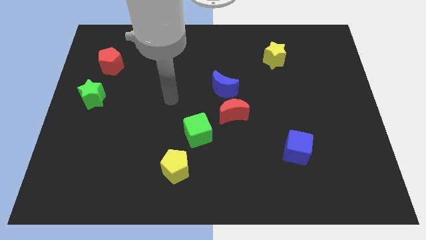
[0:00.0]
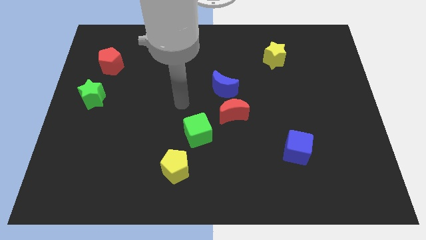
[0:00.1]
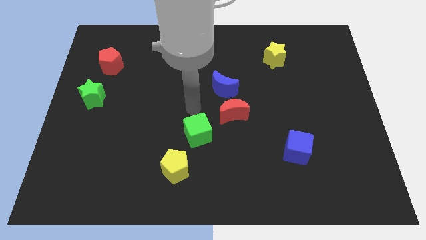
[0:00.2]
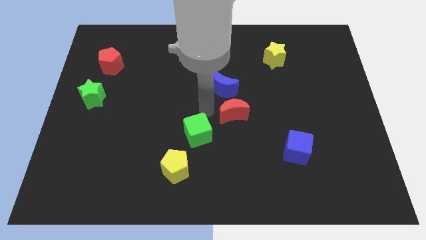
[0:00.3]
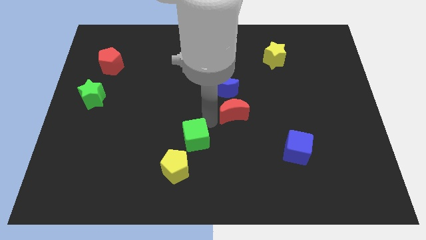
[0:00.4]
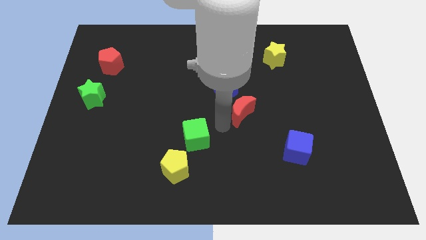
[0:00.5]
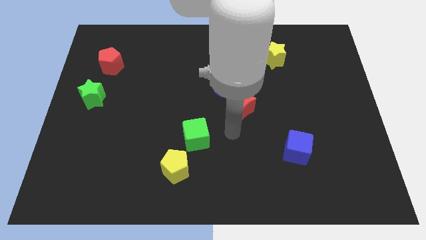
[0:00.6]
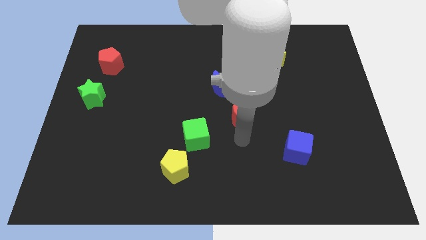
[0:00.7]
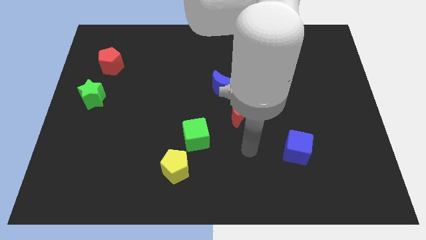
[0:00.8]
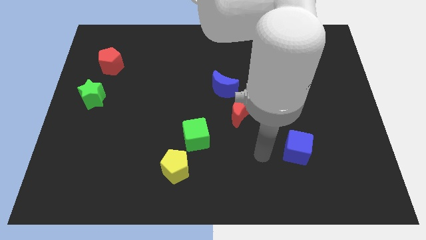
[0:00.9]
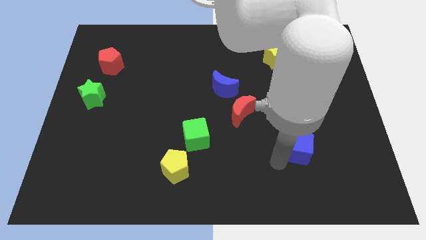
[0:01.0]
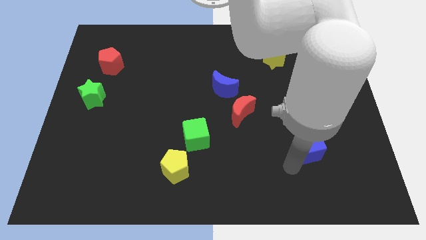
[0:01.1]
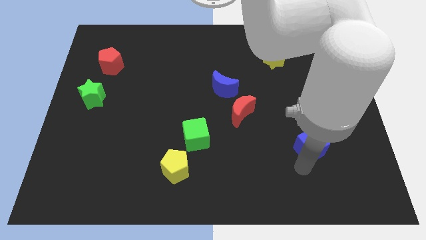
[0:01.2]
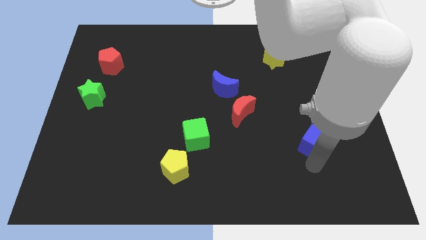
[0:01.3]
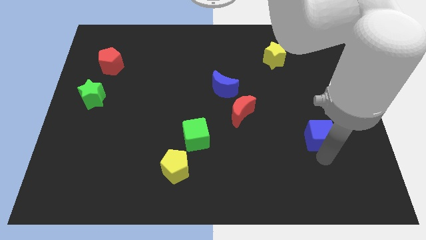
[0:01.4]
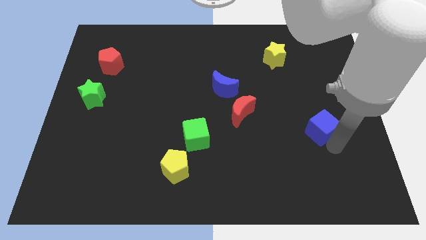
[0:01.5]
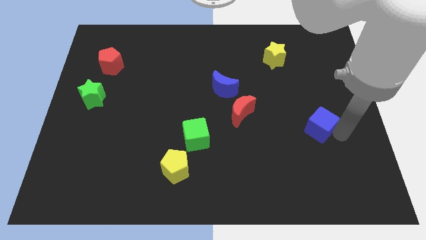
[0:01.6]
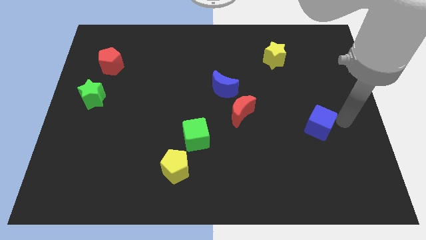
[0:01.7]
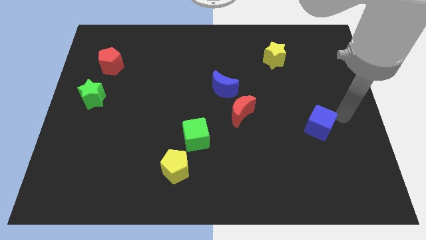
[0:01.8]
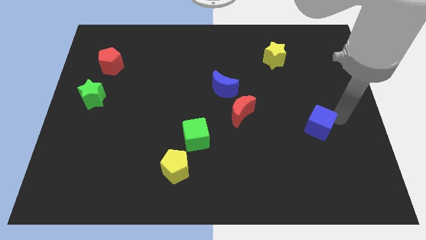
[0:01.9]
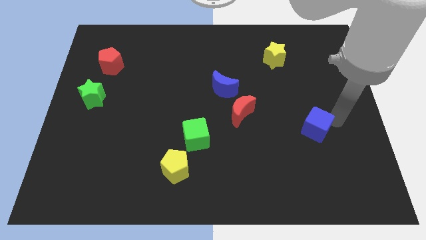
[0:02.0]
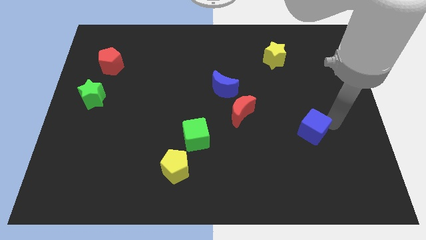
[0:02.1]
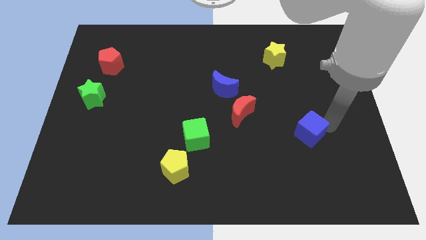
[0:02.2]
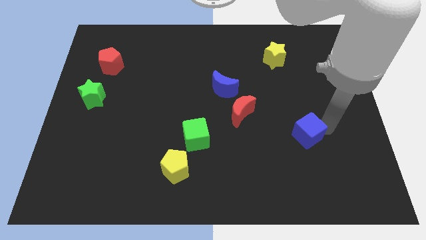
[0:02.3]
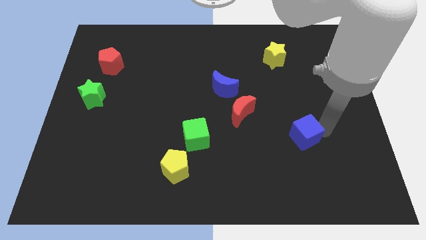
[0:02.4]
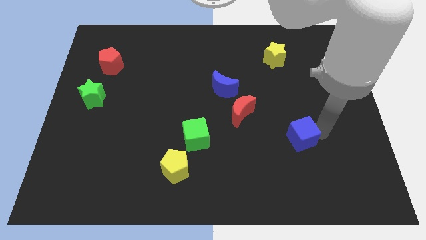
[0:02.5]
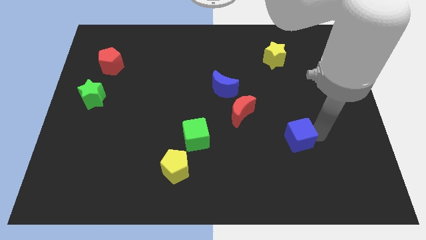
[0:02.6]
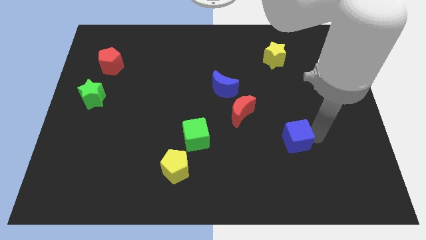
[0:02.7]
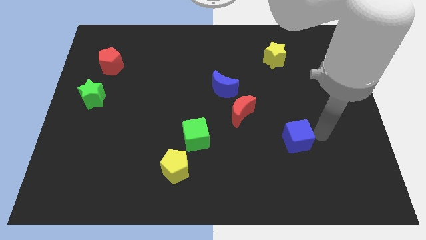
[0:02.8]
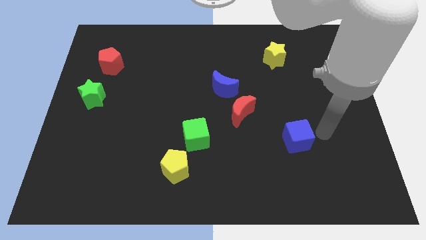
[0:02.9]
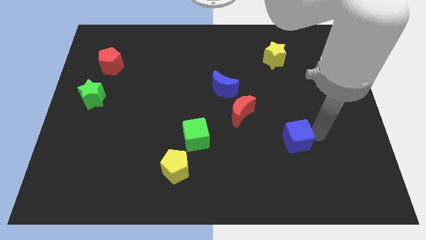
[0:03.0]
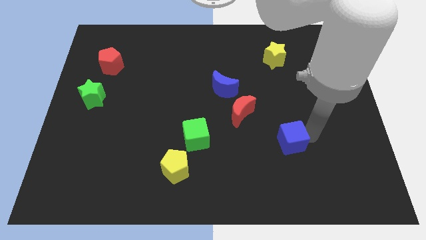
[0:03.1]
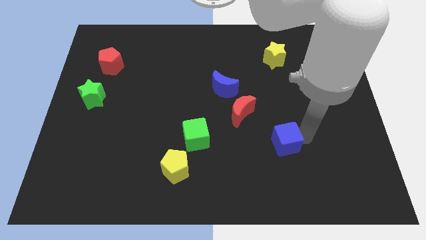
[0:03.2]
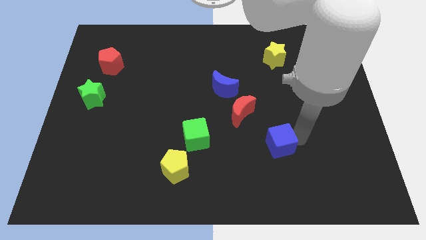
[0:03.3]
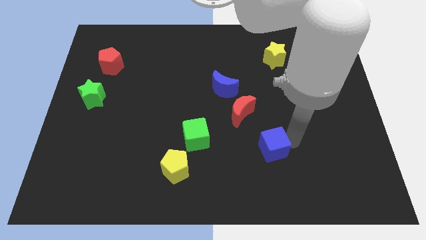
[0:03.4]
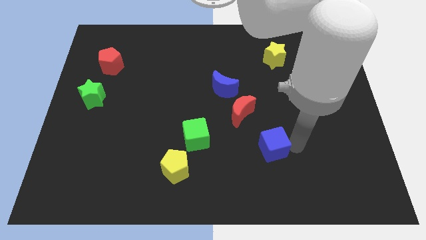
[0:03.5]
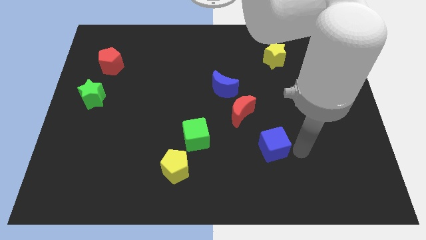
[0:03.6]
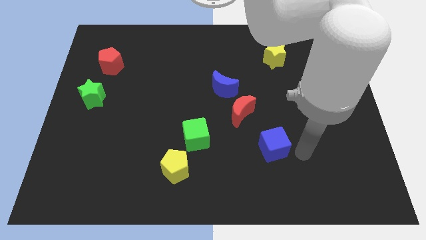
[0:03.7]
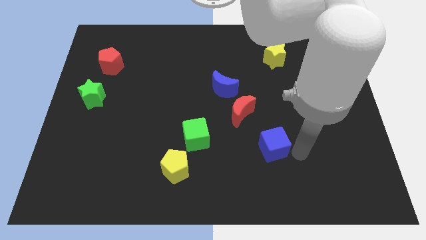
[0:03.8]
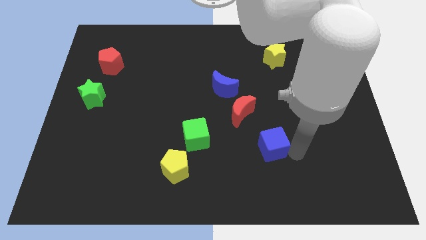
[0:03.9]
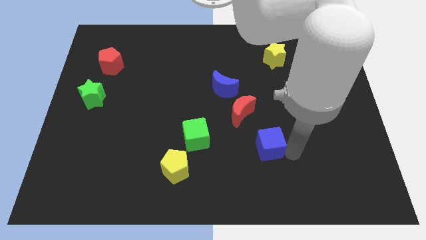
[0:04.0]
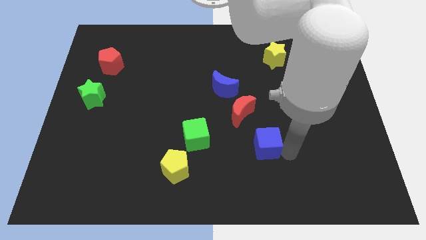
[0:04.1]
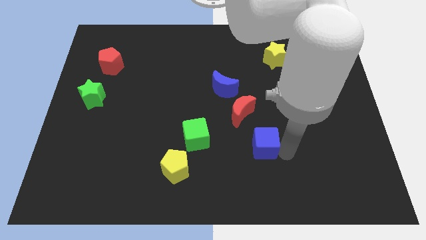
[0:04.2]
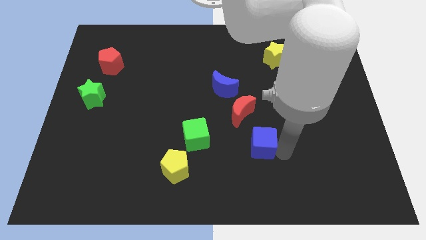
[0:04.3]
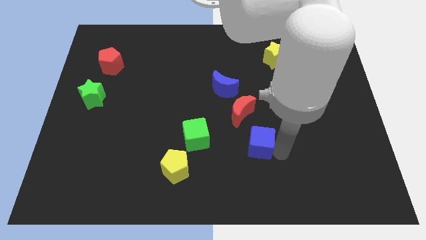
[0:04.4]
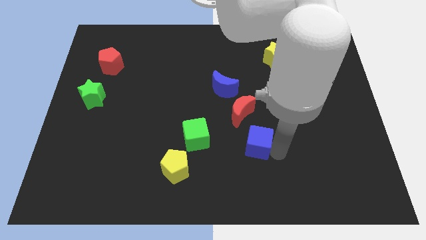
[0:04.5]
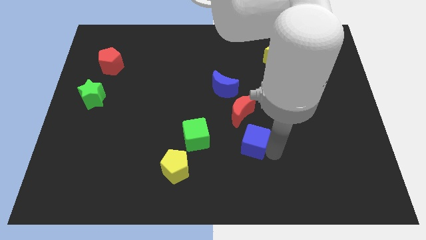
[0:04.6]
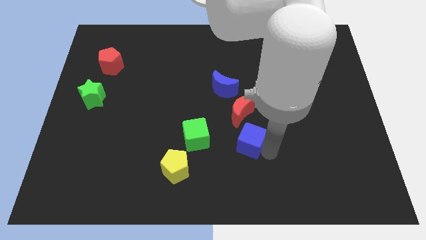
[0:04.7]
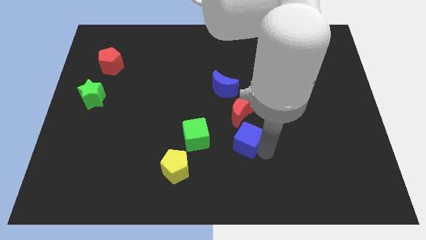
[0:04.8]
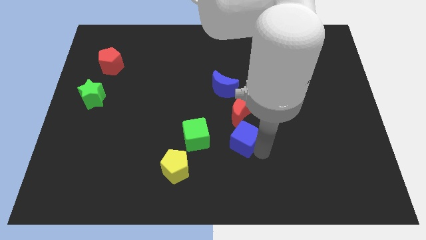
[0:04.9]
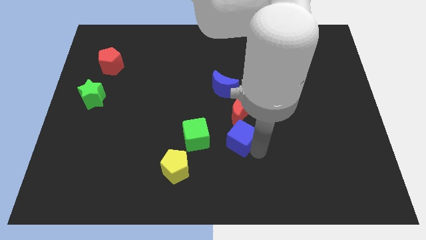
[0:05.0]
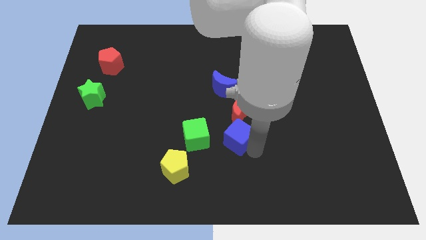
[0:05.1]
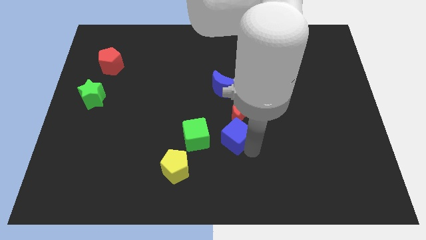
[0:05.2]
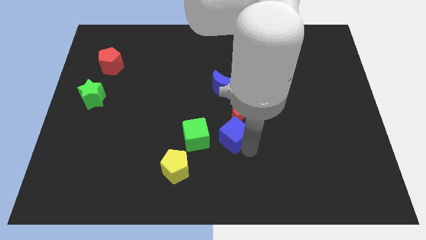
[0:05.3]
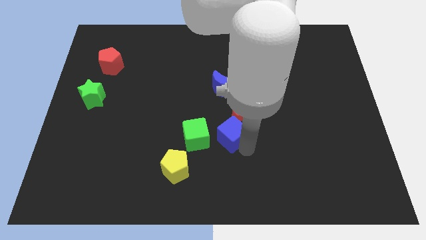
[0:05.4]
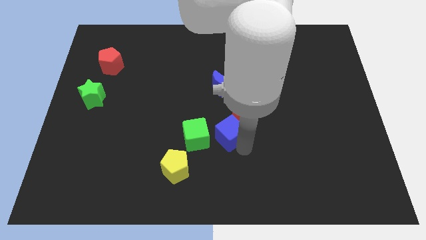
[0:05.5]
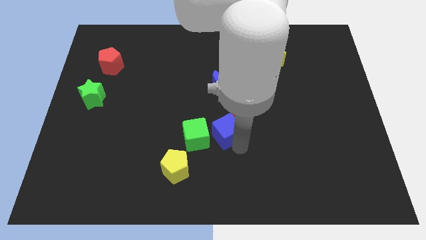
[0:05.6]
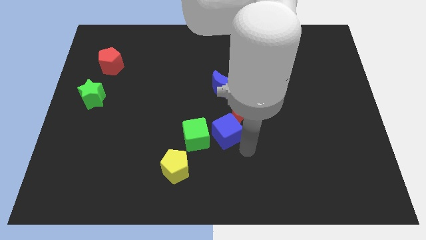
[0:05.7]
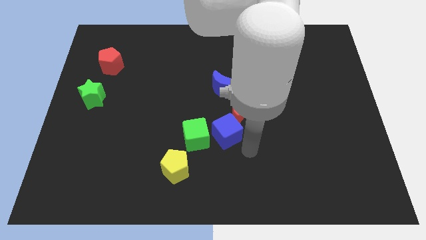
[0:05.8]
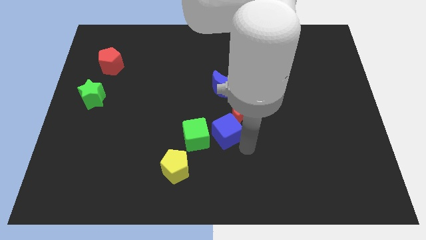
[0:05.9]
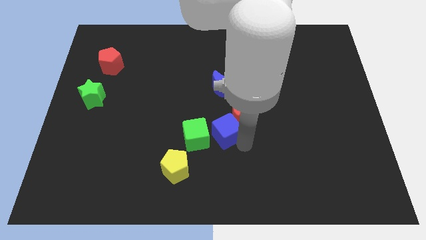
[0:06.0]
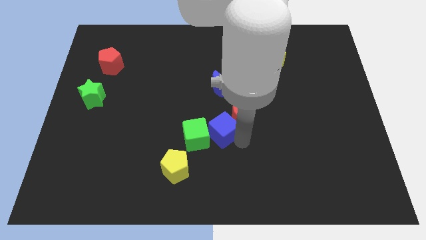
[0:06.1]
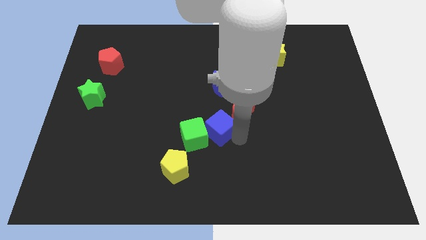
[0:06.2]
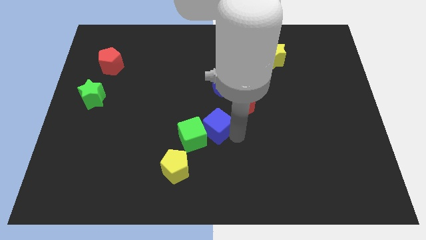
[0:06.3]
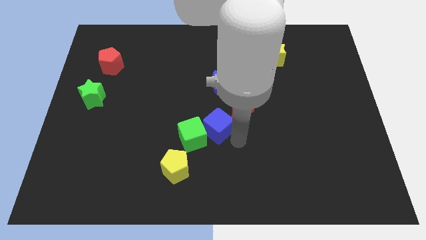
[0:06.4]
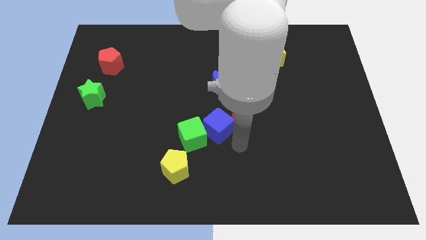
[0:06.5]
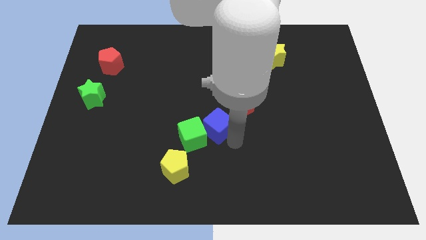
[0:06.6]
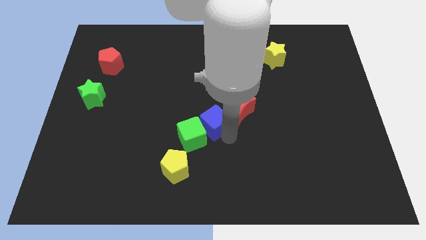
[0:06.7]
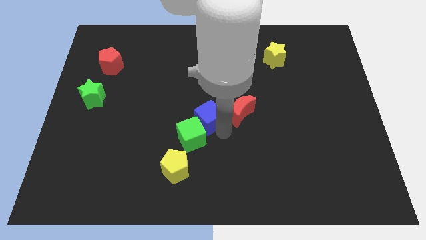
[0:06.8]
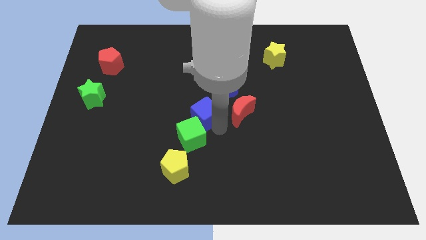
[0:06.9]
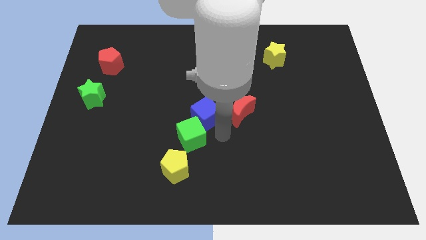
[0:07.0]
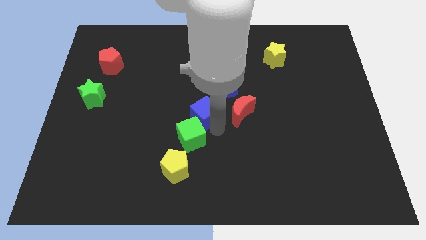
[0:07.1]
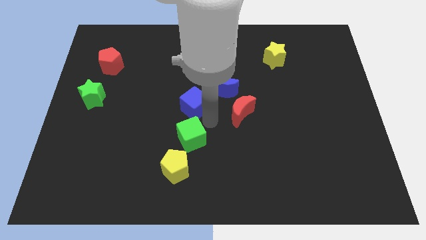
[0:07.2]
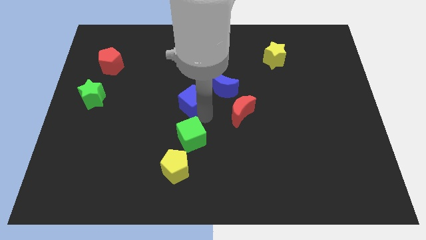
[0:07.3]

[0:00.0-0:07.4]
put the blue cube to the left of the blue moon
